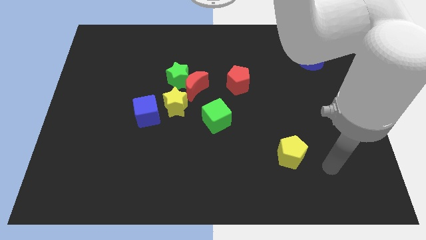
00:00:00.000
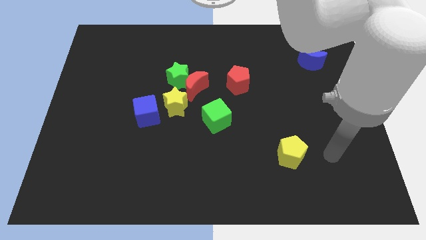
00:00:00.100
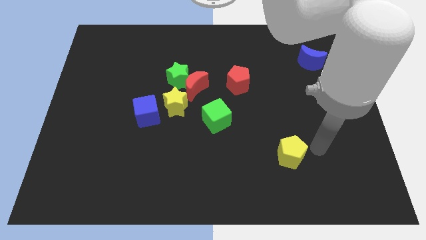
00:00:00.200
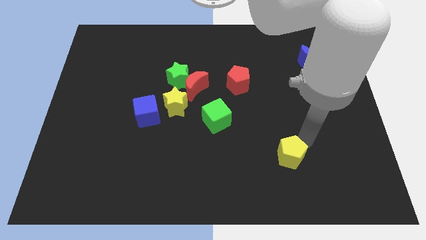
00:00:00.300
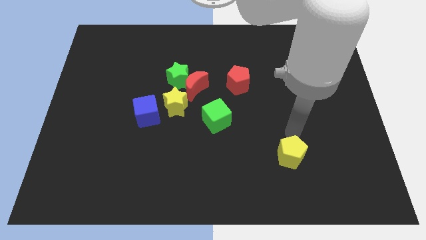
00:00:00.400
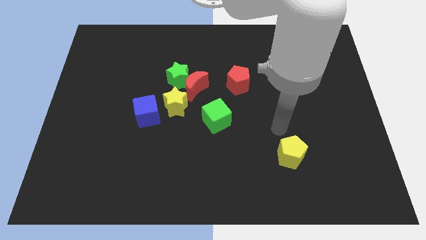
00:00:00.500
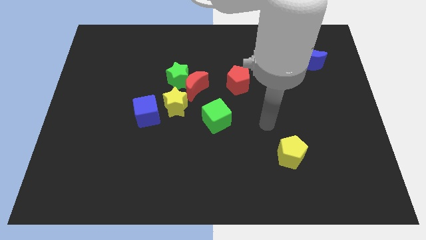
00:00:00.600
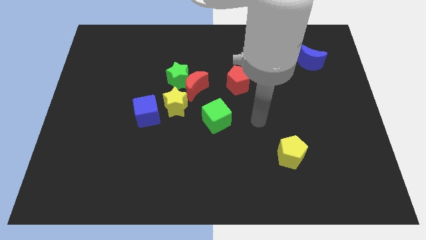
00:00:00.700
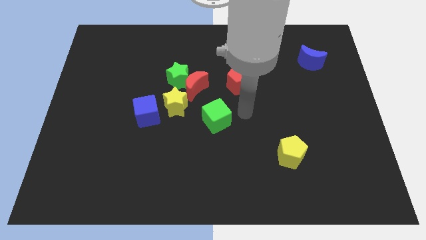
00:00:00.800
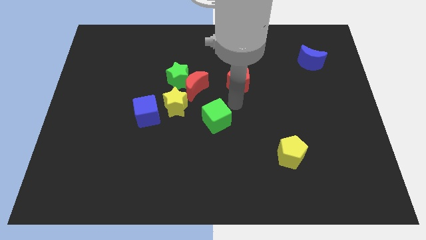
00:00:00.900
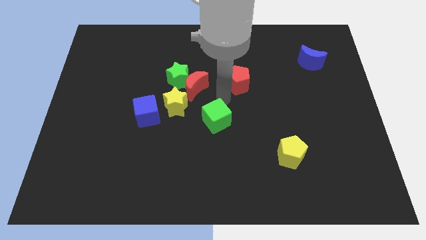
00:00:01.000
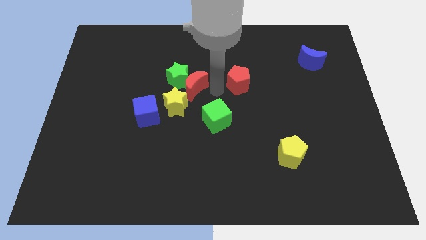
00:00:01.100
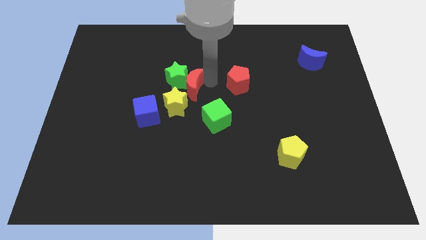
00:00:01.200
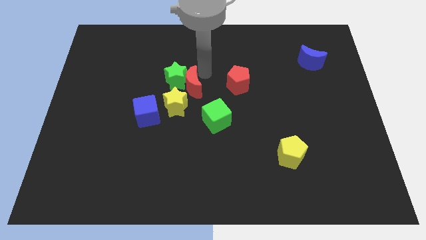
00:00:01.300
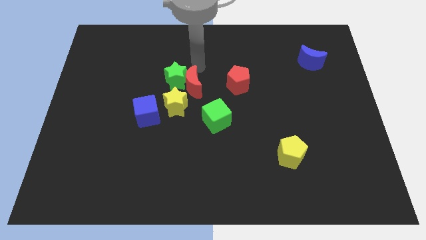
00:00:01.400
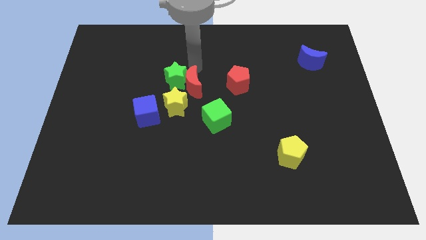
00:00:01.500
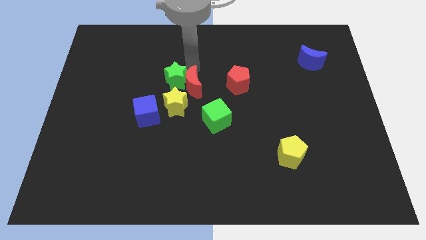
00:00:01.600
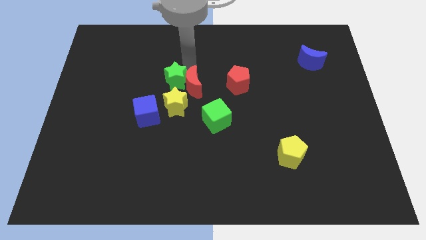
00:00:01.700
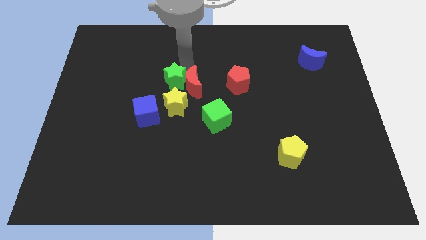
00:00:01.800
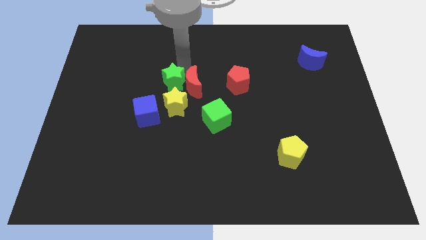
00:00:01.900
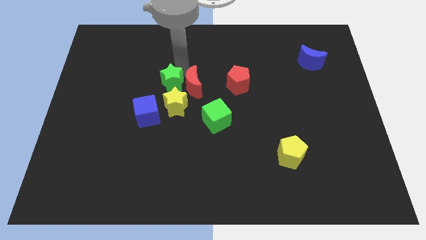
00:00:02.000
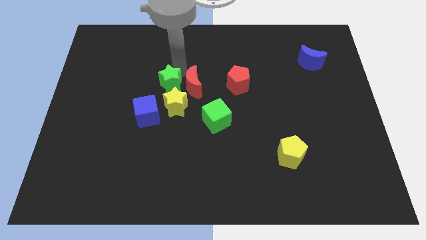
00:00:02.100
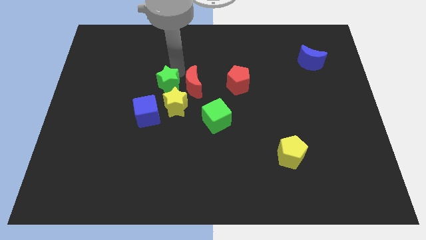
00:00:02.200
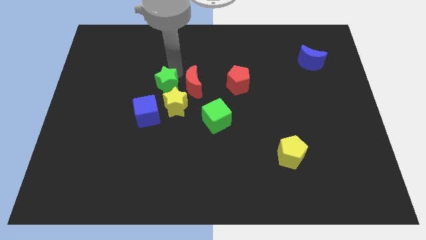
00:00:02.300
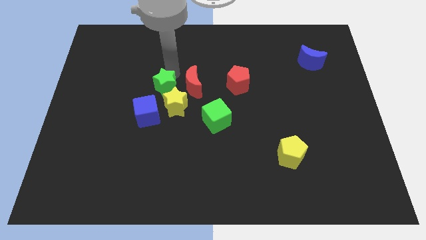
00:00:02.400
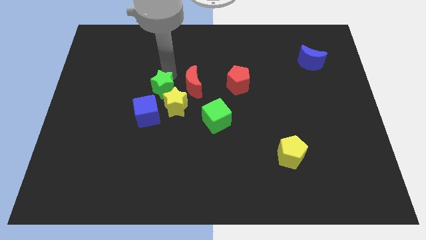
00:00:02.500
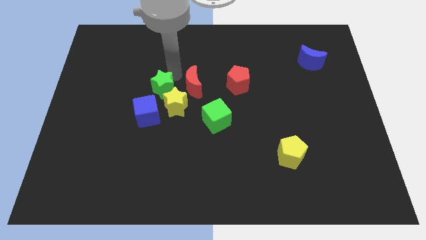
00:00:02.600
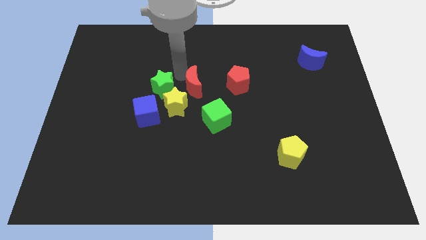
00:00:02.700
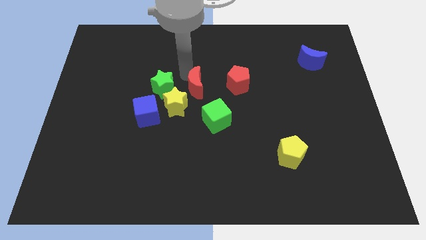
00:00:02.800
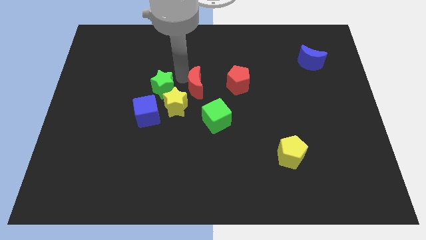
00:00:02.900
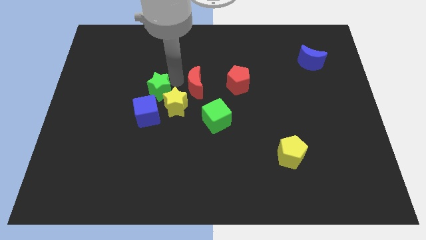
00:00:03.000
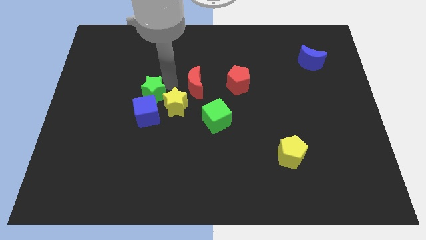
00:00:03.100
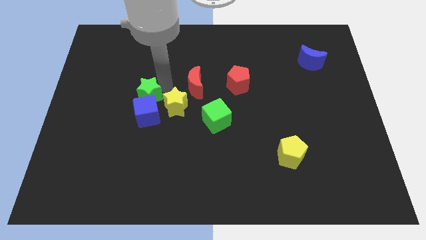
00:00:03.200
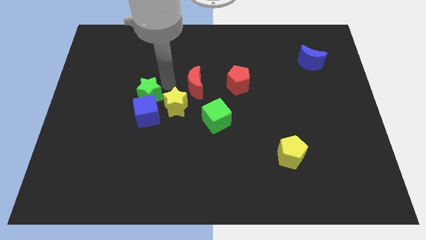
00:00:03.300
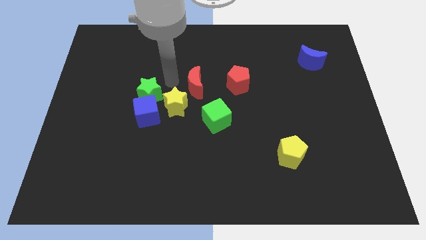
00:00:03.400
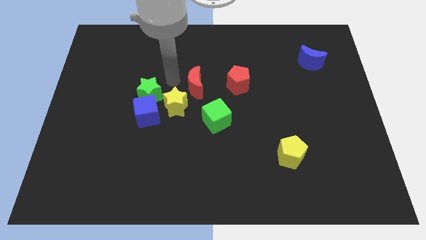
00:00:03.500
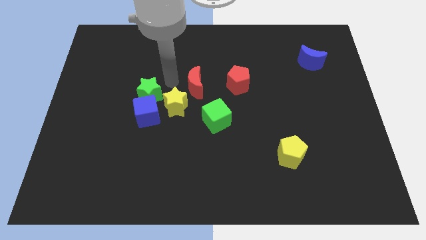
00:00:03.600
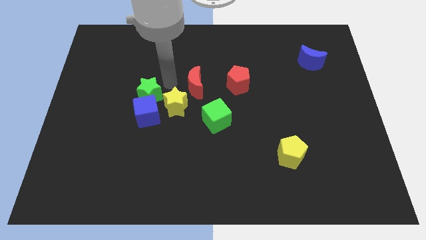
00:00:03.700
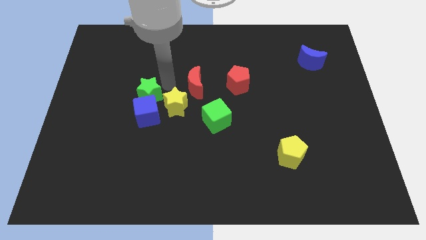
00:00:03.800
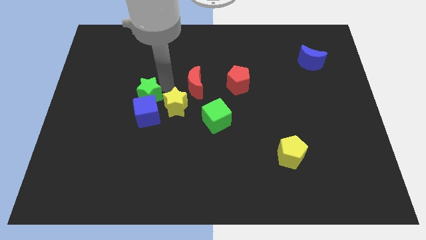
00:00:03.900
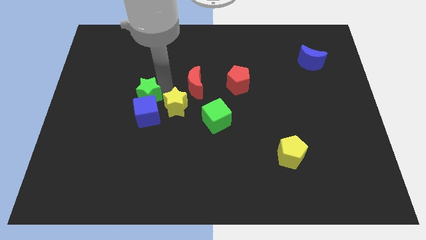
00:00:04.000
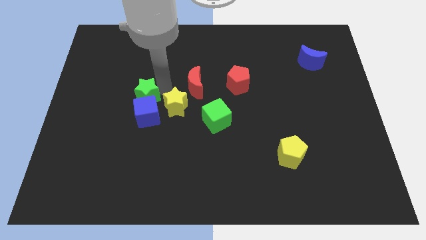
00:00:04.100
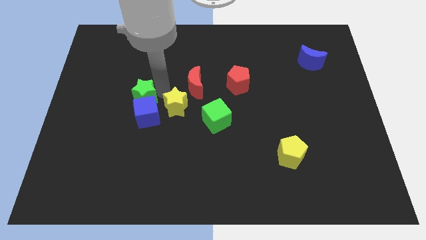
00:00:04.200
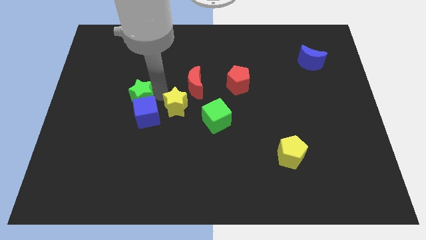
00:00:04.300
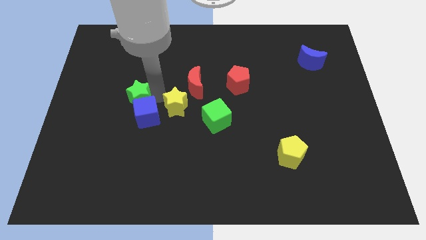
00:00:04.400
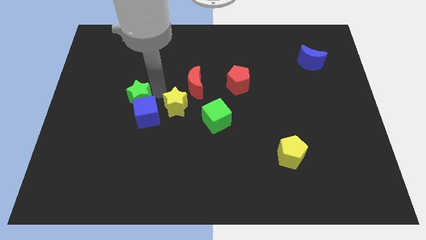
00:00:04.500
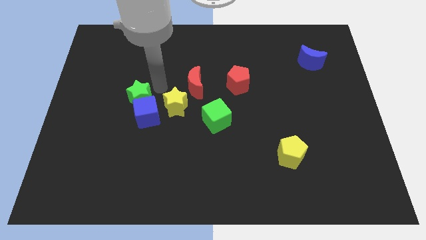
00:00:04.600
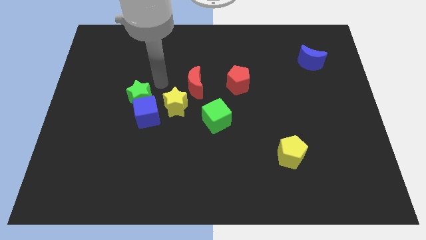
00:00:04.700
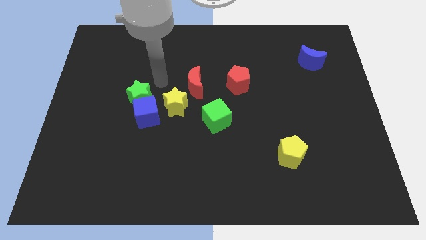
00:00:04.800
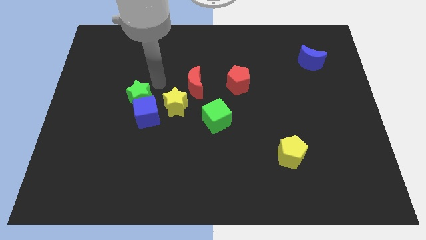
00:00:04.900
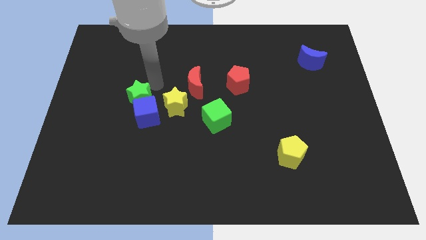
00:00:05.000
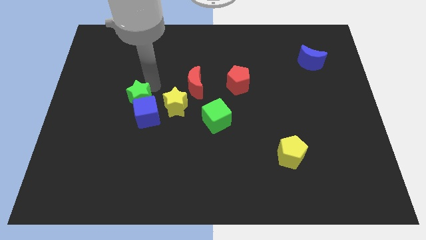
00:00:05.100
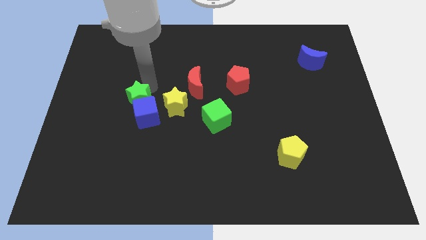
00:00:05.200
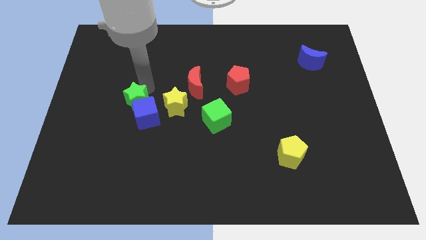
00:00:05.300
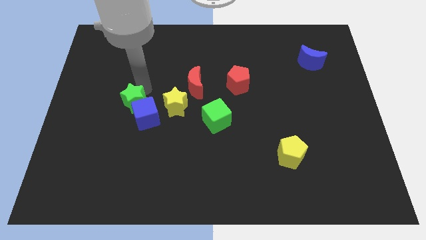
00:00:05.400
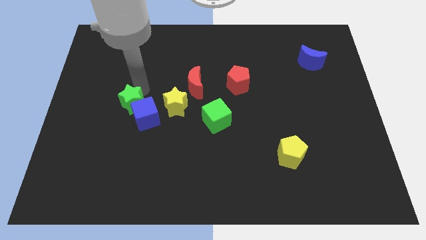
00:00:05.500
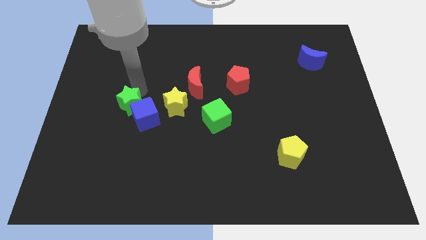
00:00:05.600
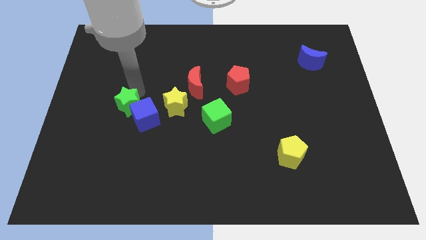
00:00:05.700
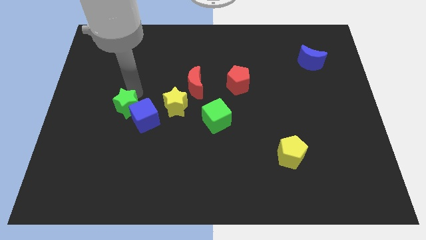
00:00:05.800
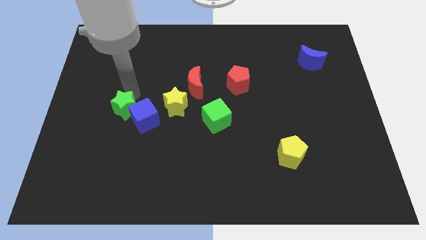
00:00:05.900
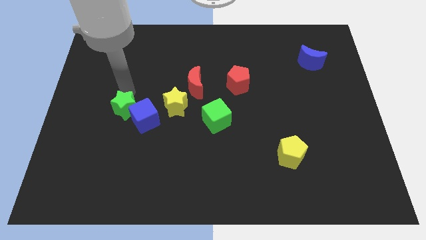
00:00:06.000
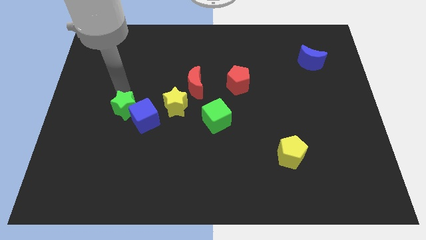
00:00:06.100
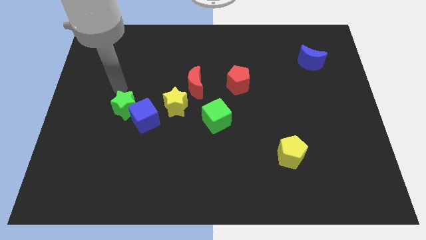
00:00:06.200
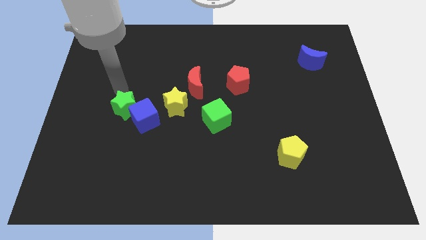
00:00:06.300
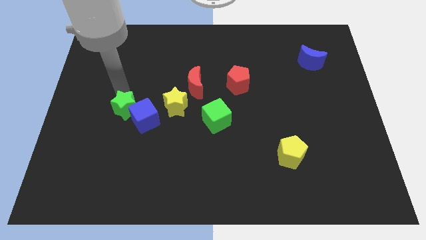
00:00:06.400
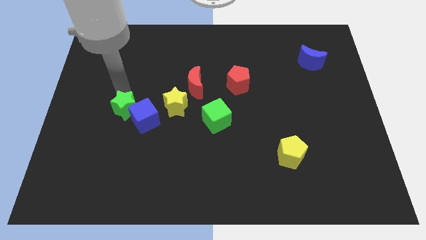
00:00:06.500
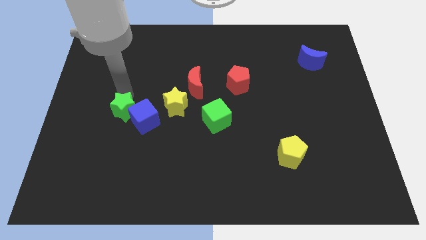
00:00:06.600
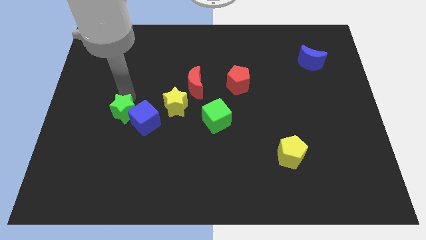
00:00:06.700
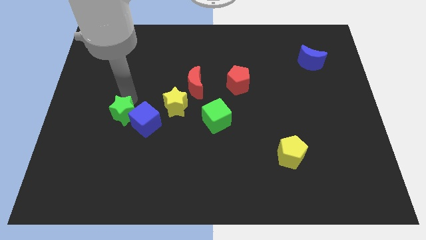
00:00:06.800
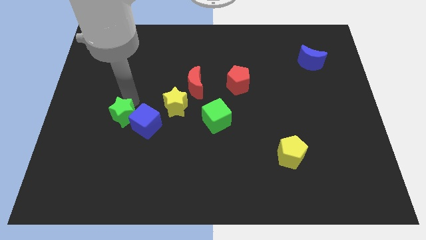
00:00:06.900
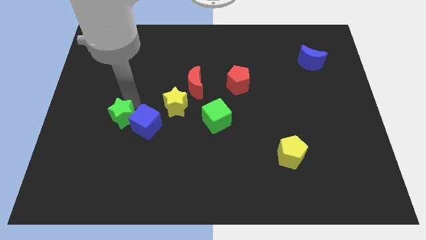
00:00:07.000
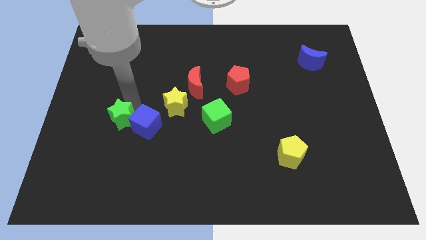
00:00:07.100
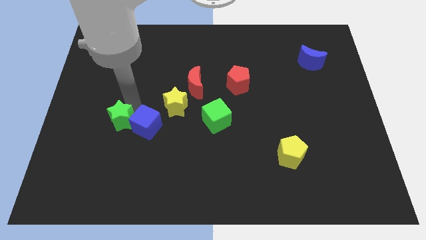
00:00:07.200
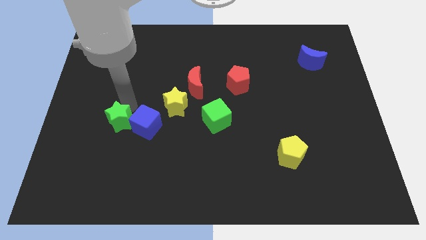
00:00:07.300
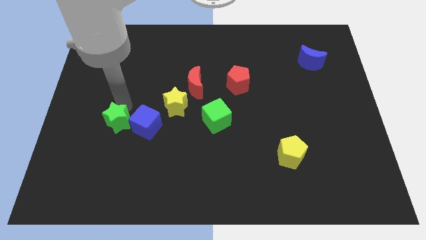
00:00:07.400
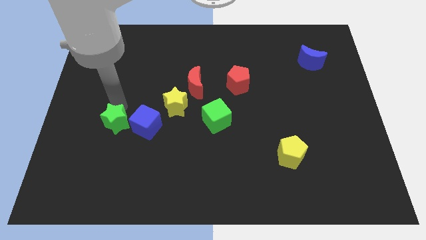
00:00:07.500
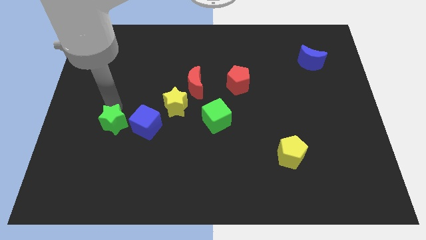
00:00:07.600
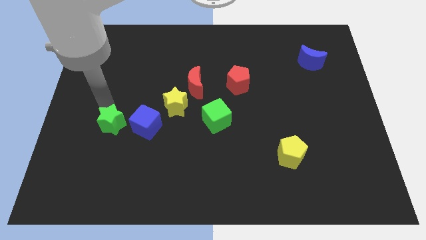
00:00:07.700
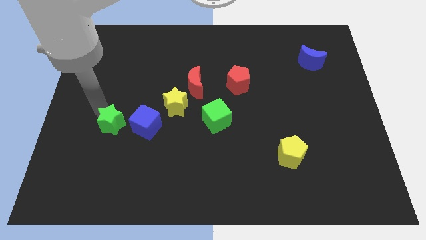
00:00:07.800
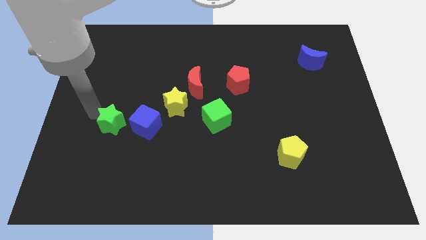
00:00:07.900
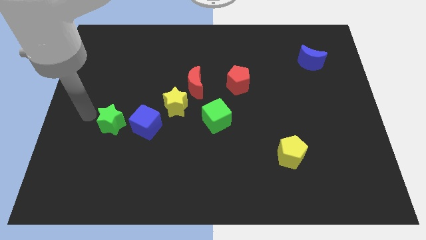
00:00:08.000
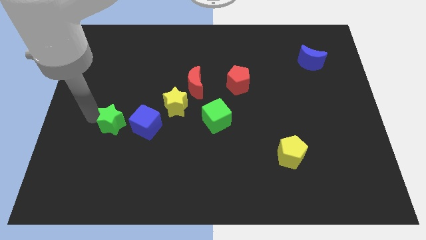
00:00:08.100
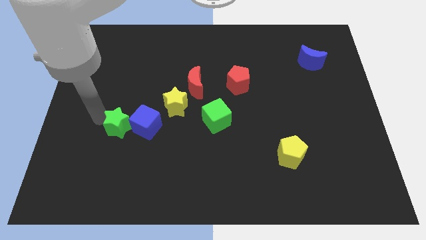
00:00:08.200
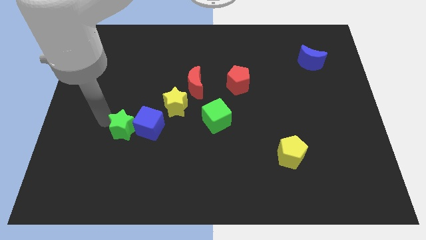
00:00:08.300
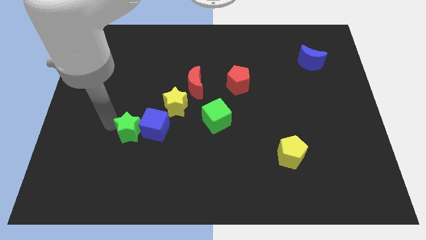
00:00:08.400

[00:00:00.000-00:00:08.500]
push the green star diagonally down and to the left of the yellow star
